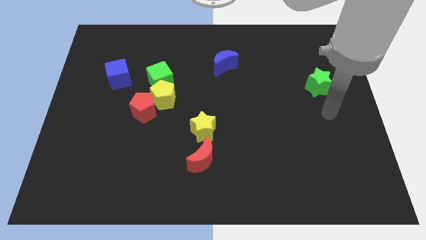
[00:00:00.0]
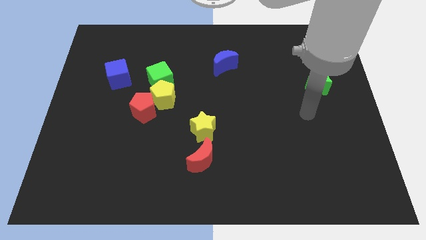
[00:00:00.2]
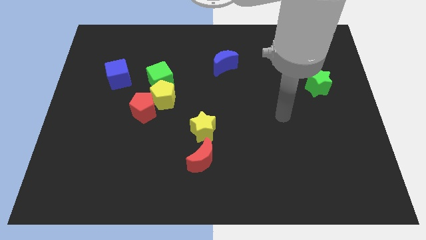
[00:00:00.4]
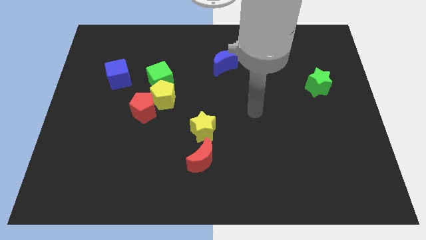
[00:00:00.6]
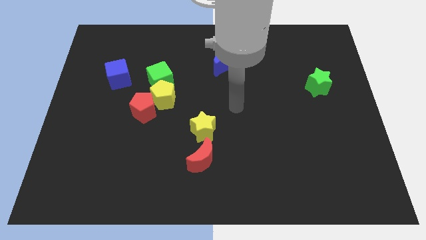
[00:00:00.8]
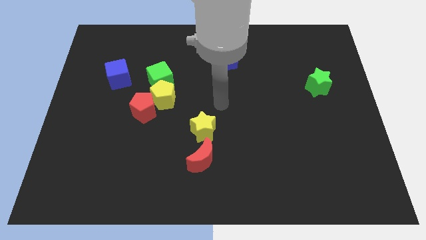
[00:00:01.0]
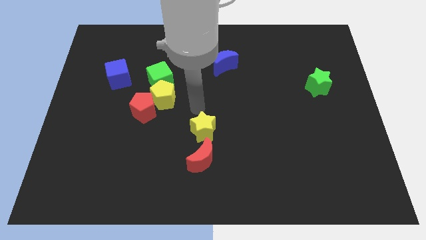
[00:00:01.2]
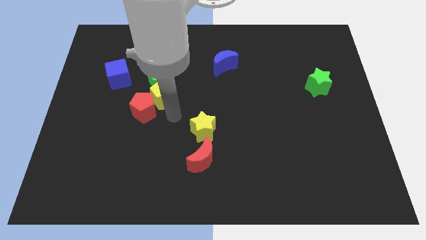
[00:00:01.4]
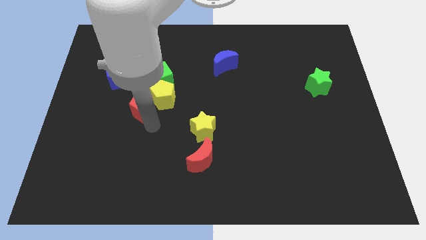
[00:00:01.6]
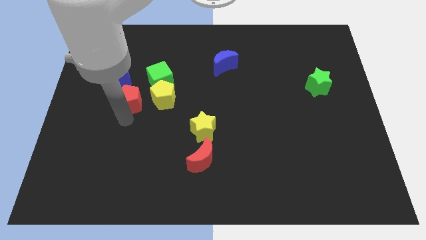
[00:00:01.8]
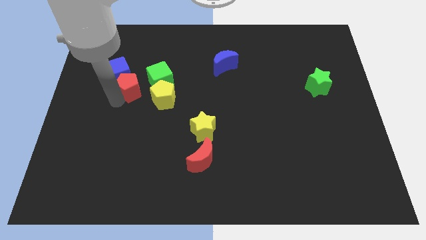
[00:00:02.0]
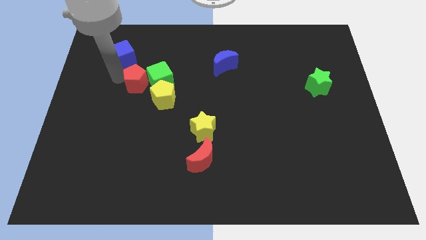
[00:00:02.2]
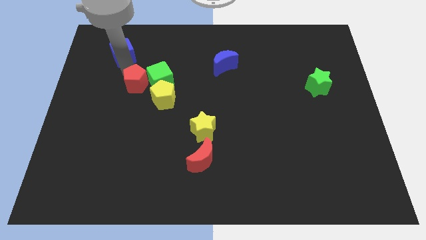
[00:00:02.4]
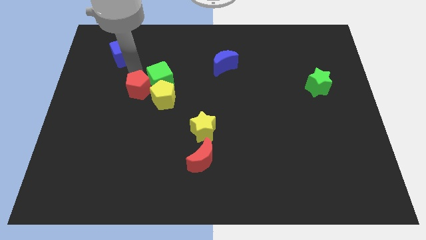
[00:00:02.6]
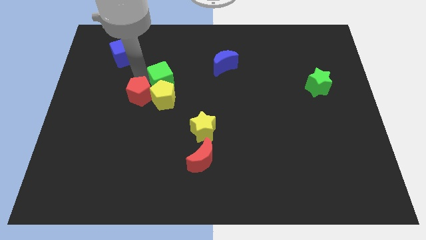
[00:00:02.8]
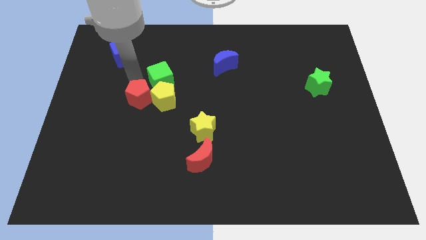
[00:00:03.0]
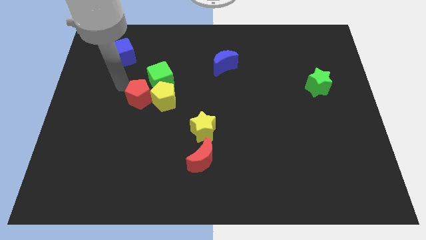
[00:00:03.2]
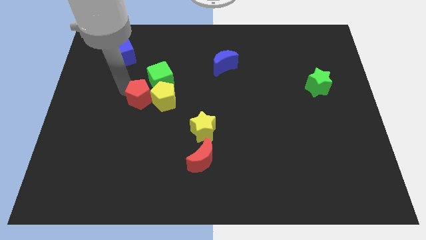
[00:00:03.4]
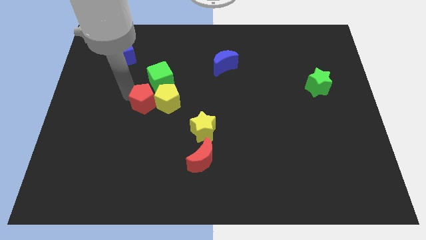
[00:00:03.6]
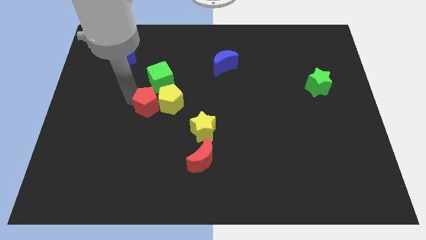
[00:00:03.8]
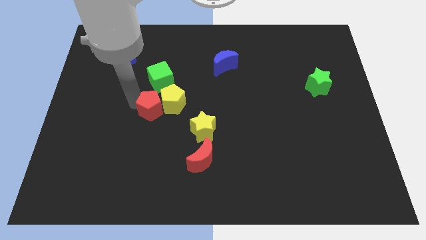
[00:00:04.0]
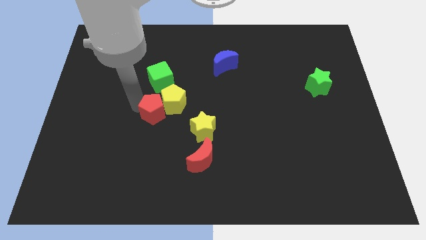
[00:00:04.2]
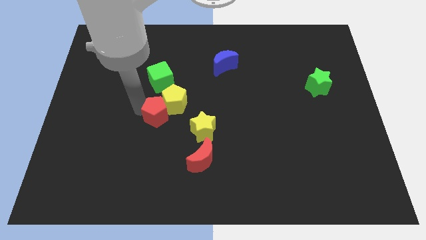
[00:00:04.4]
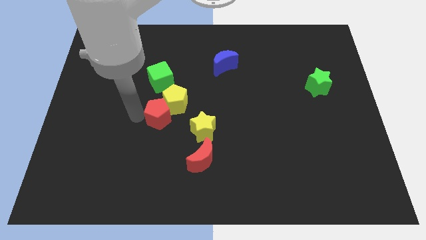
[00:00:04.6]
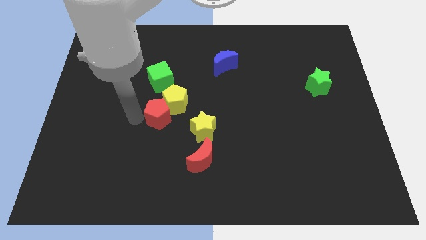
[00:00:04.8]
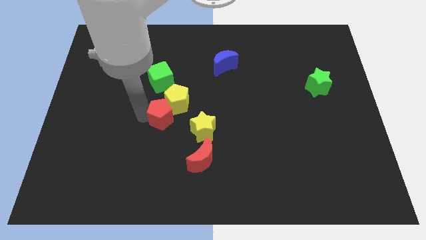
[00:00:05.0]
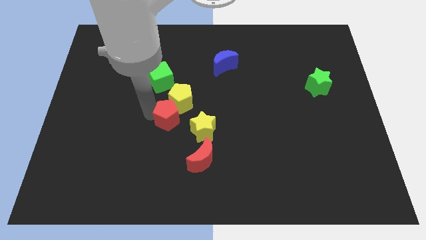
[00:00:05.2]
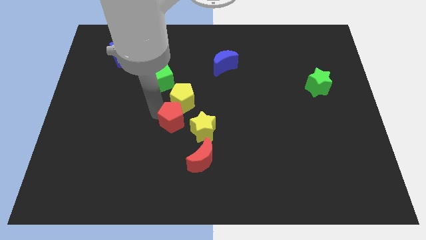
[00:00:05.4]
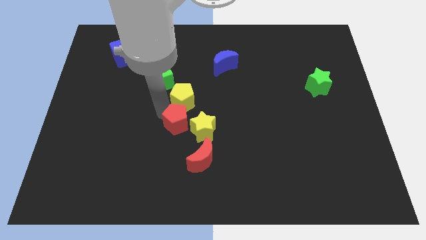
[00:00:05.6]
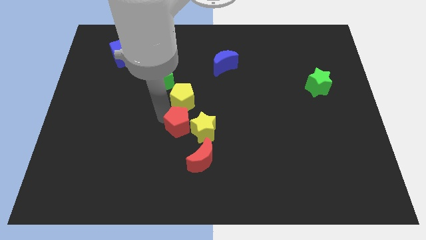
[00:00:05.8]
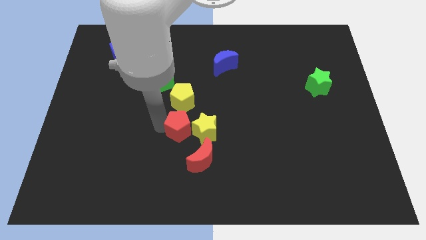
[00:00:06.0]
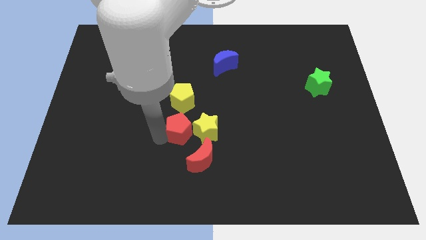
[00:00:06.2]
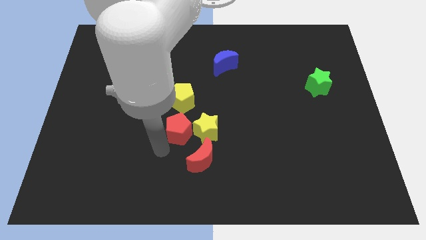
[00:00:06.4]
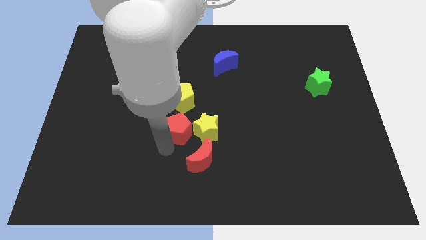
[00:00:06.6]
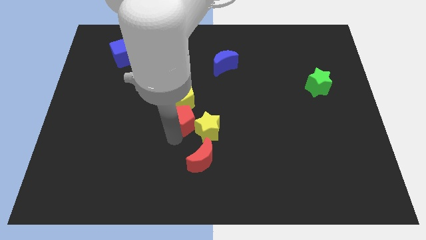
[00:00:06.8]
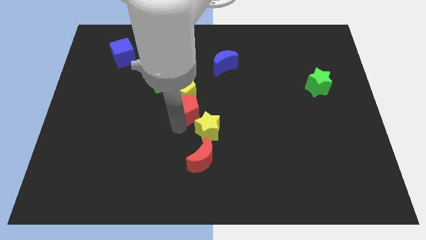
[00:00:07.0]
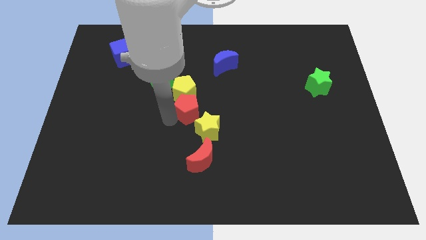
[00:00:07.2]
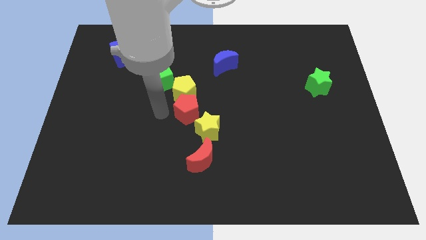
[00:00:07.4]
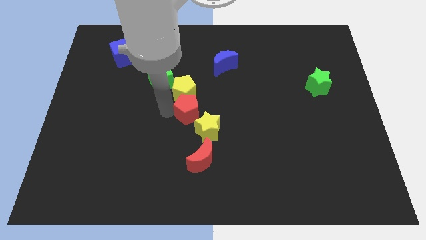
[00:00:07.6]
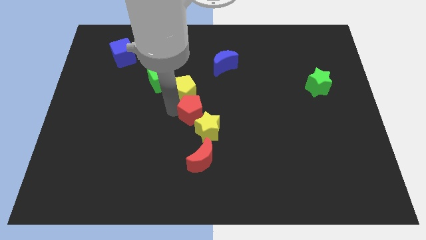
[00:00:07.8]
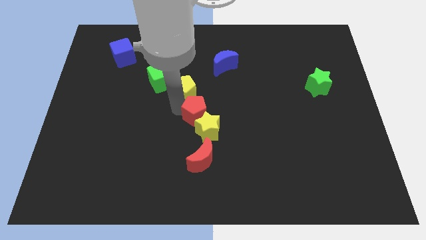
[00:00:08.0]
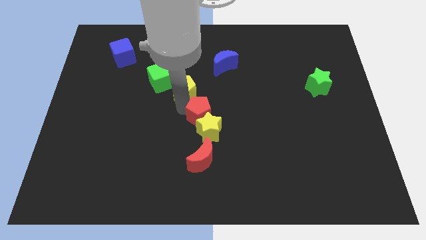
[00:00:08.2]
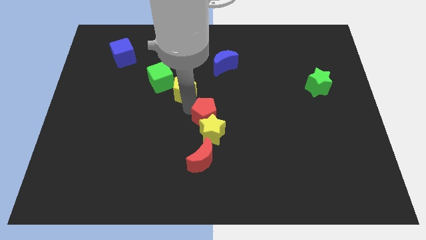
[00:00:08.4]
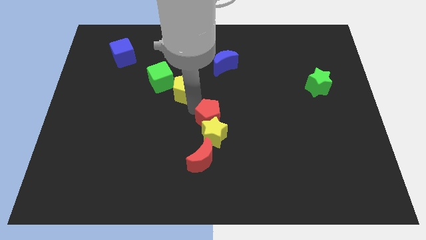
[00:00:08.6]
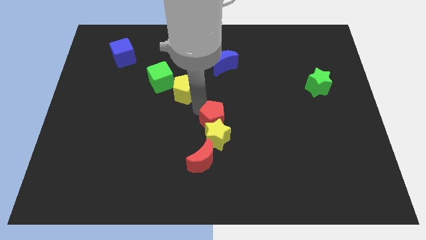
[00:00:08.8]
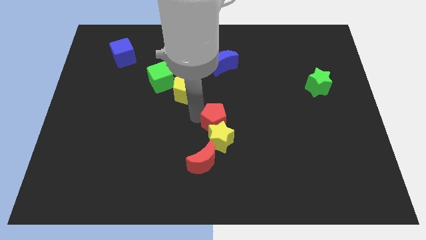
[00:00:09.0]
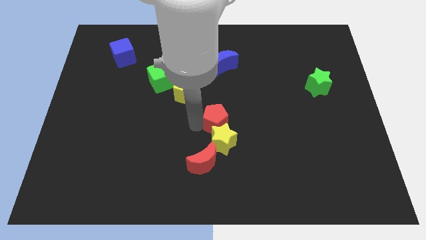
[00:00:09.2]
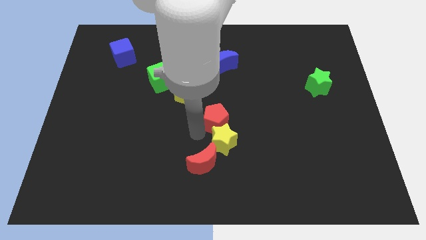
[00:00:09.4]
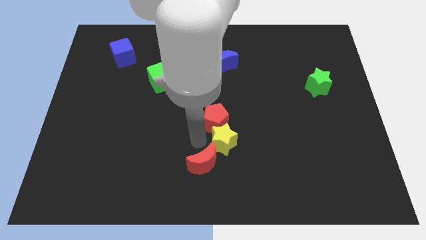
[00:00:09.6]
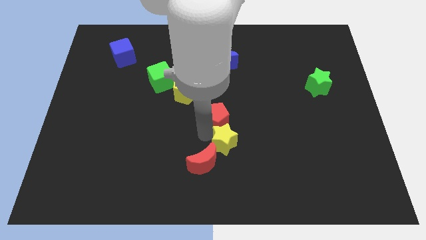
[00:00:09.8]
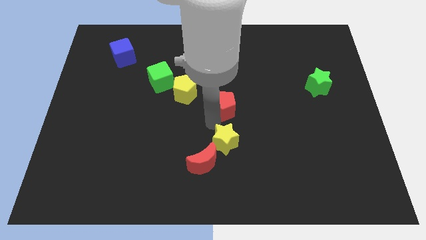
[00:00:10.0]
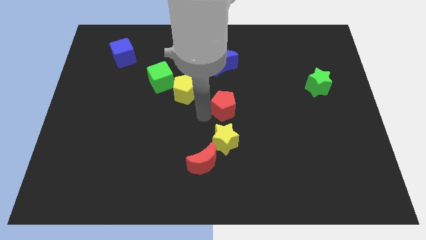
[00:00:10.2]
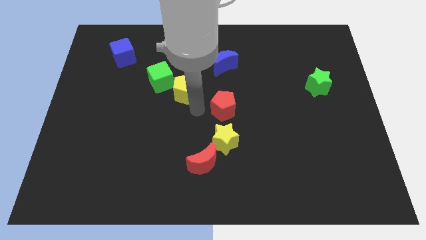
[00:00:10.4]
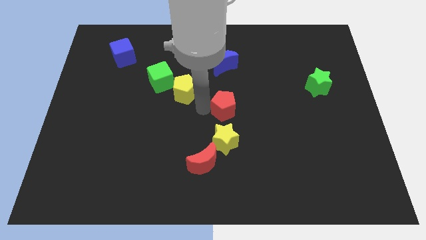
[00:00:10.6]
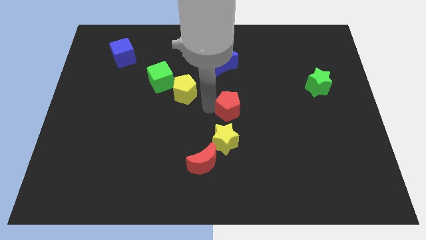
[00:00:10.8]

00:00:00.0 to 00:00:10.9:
slide the red pentagon right

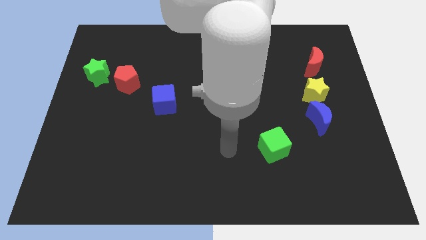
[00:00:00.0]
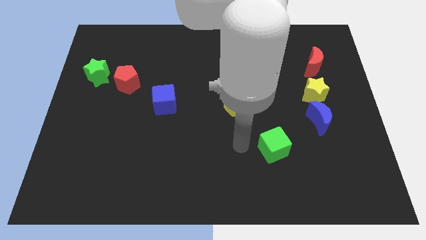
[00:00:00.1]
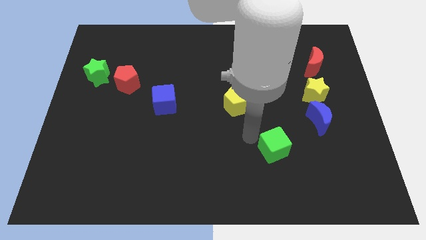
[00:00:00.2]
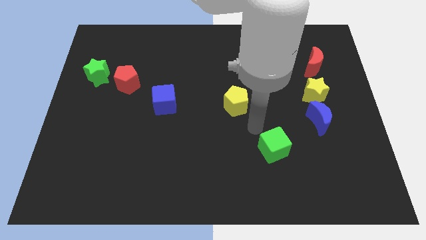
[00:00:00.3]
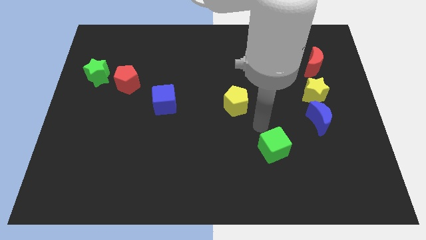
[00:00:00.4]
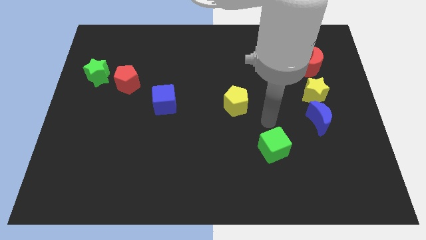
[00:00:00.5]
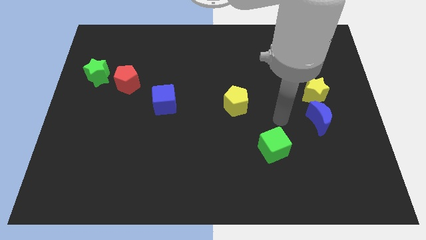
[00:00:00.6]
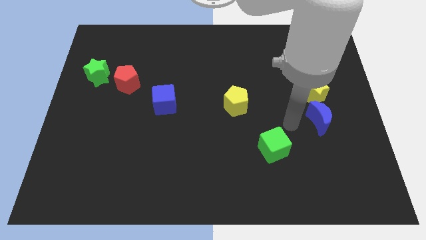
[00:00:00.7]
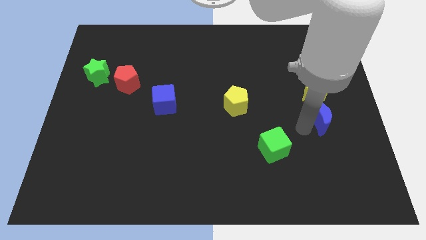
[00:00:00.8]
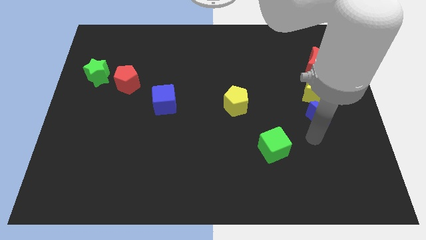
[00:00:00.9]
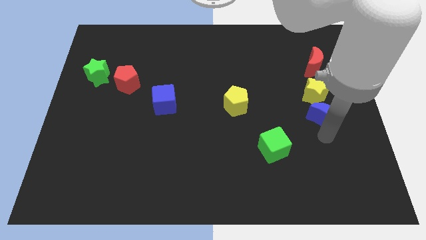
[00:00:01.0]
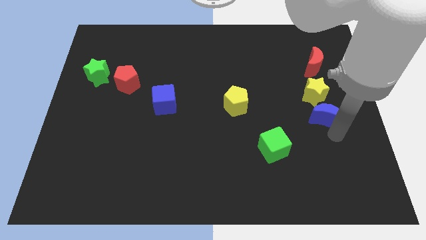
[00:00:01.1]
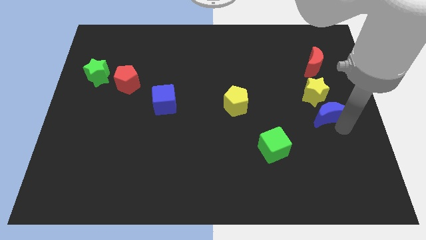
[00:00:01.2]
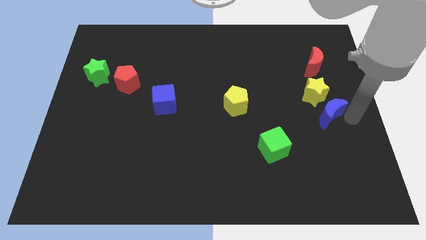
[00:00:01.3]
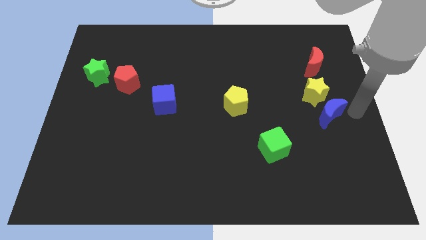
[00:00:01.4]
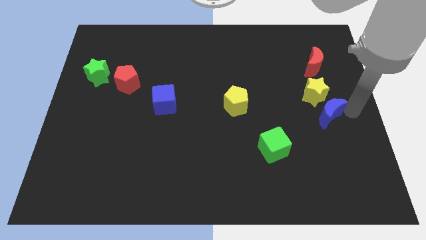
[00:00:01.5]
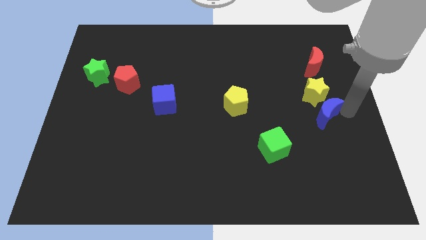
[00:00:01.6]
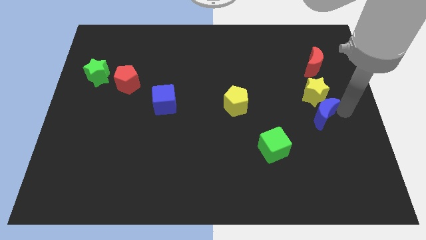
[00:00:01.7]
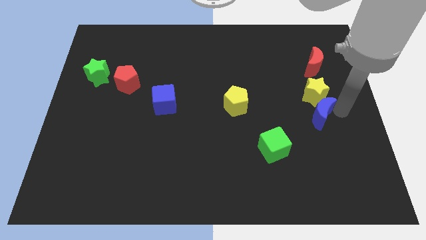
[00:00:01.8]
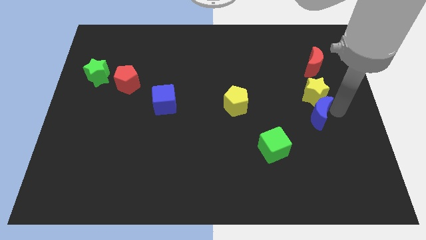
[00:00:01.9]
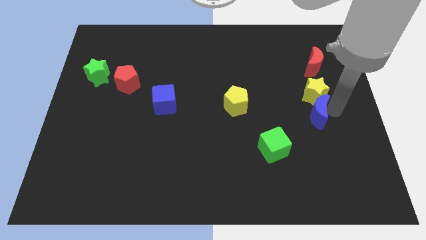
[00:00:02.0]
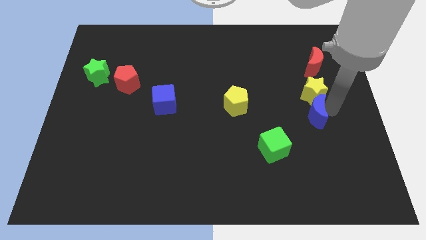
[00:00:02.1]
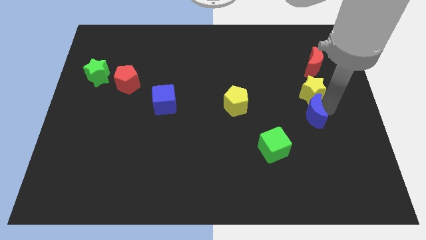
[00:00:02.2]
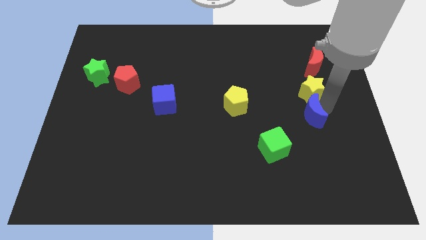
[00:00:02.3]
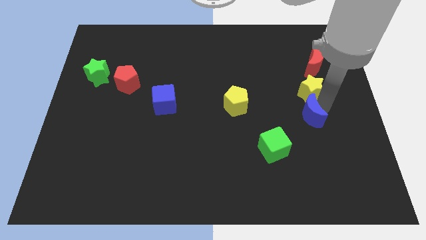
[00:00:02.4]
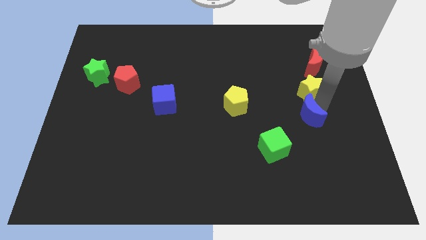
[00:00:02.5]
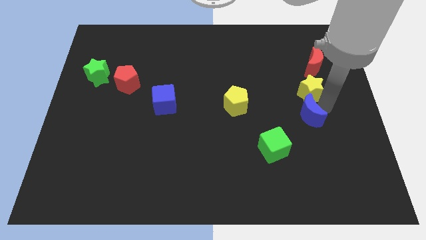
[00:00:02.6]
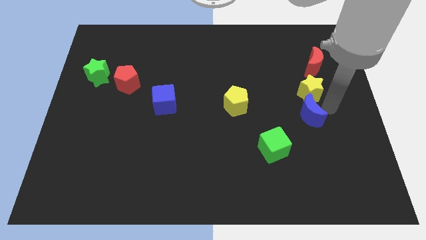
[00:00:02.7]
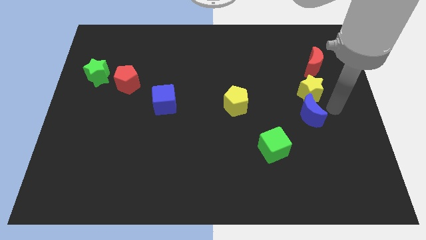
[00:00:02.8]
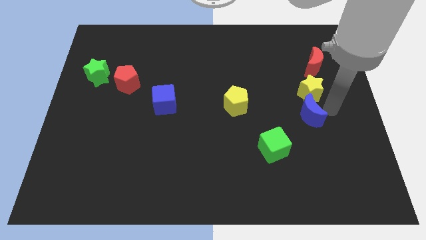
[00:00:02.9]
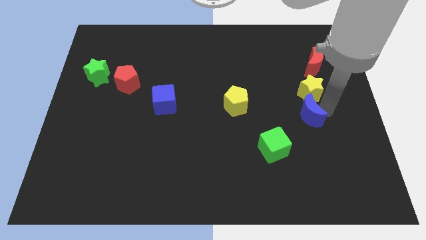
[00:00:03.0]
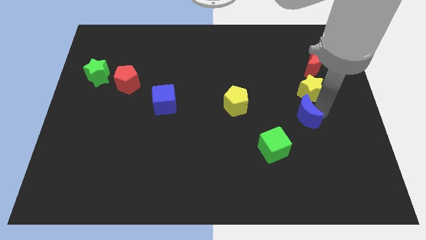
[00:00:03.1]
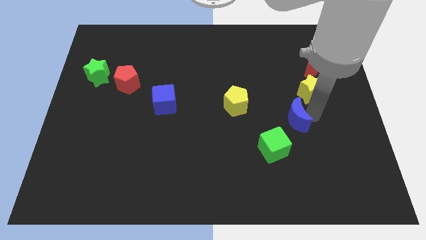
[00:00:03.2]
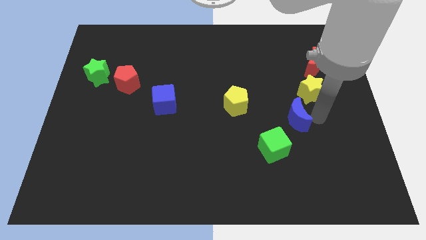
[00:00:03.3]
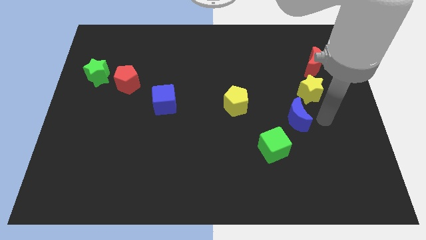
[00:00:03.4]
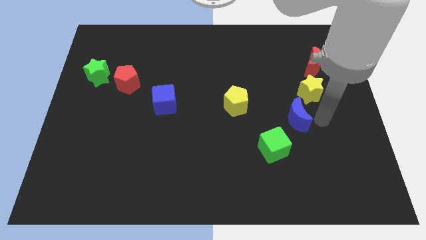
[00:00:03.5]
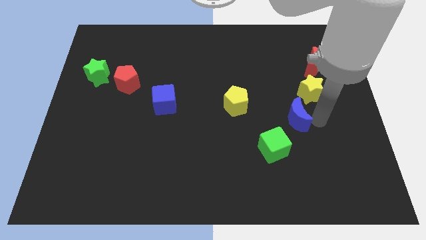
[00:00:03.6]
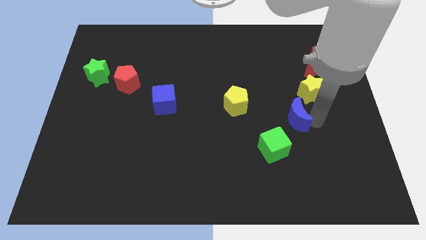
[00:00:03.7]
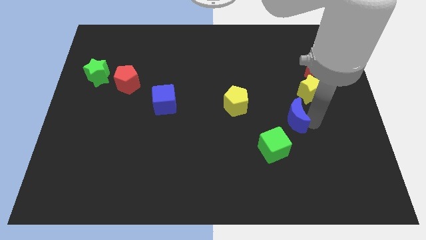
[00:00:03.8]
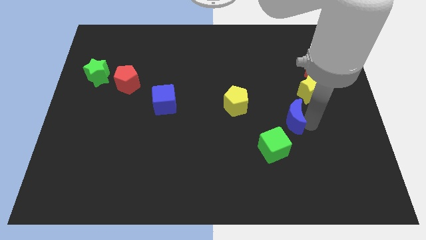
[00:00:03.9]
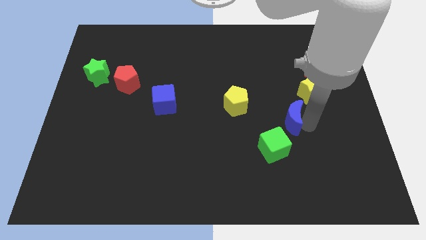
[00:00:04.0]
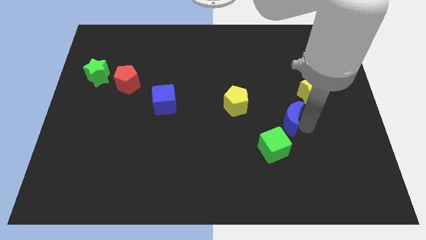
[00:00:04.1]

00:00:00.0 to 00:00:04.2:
slightly slide the blue moon left
